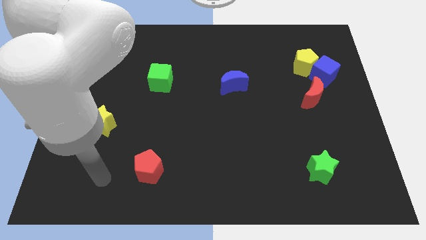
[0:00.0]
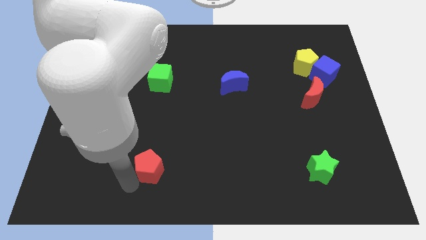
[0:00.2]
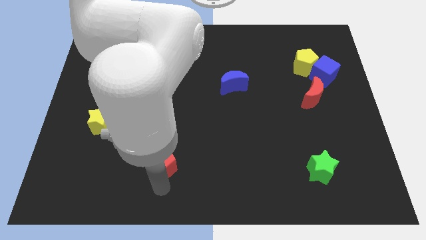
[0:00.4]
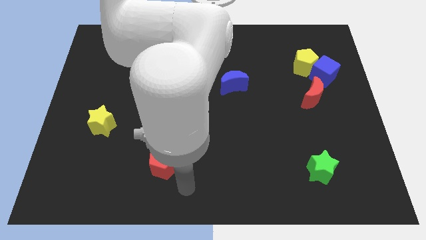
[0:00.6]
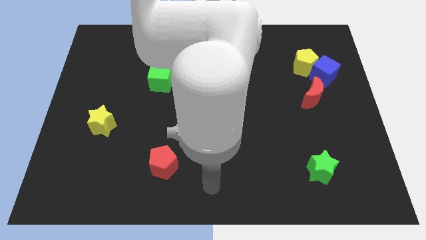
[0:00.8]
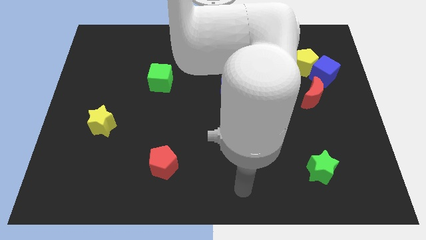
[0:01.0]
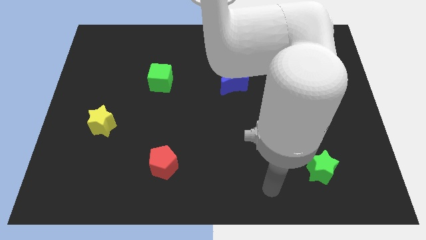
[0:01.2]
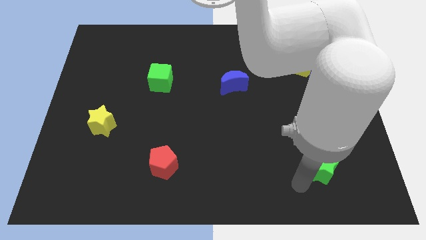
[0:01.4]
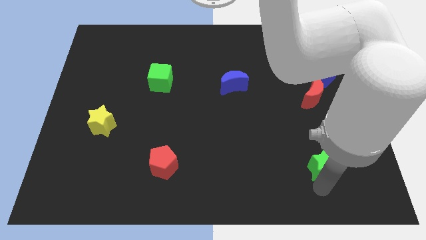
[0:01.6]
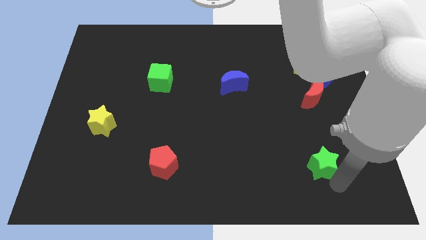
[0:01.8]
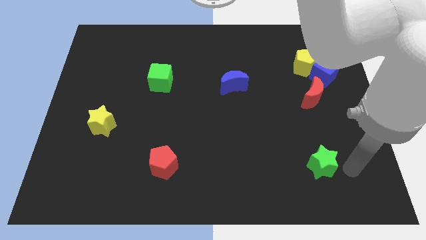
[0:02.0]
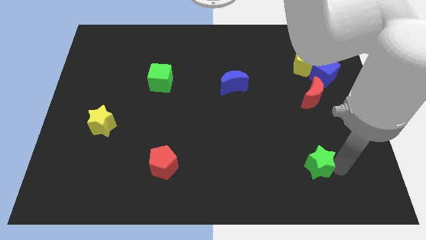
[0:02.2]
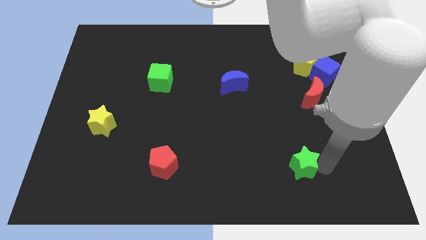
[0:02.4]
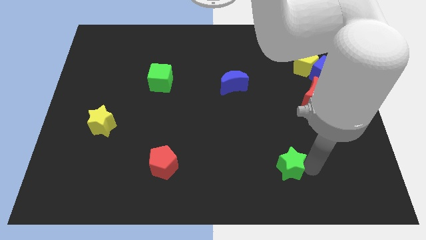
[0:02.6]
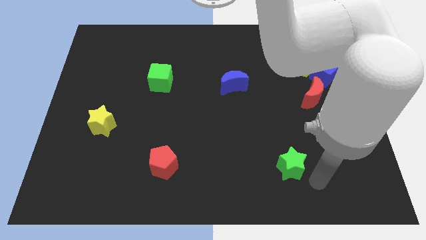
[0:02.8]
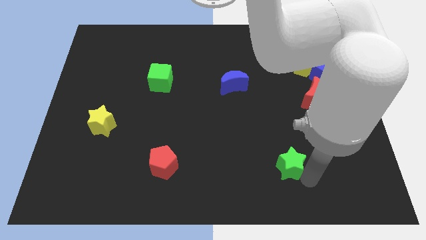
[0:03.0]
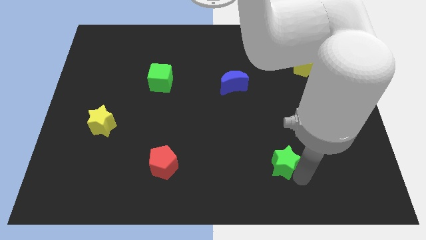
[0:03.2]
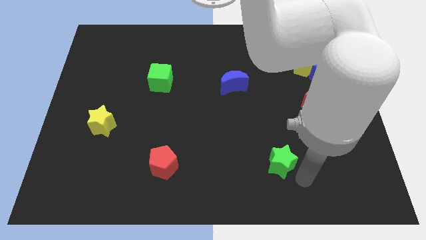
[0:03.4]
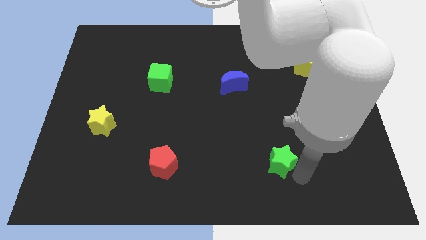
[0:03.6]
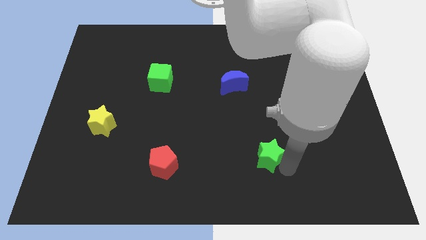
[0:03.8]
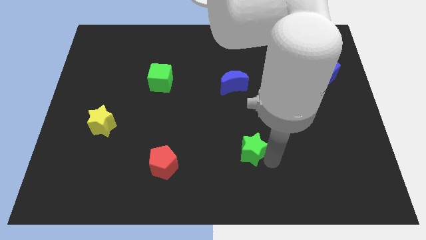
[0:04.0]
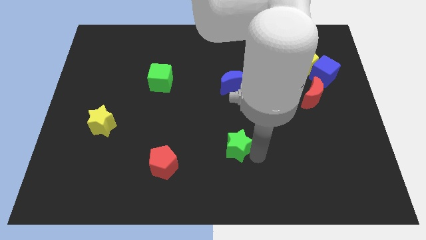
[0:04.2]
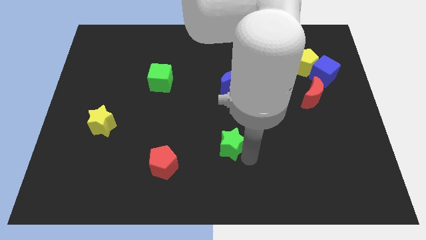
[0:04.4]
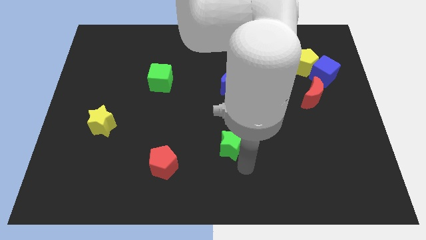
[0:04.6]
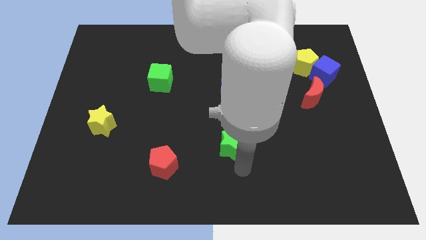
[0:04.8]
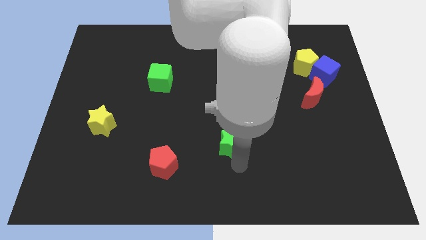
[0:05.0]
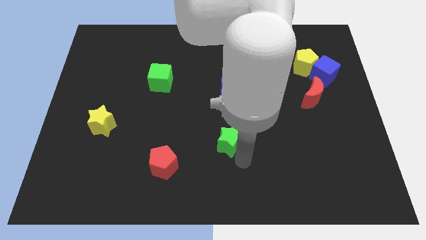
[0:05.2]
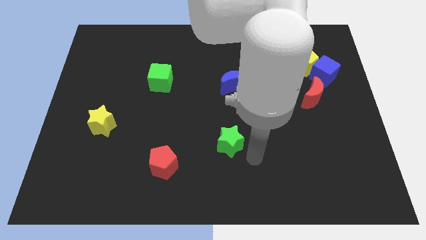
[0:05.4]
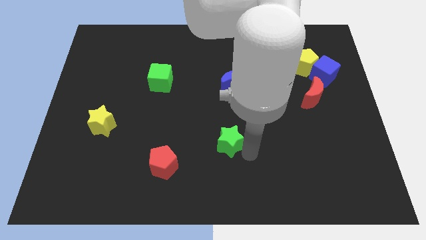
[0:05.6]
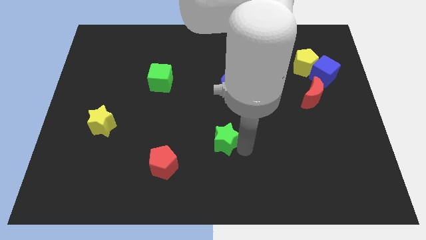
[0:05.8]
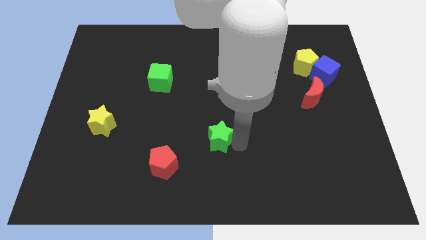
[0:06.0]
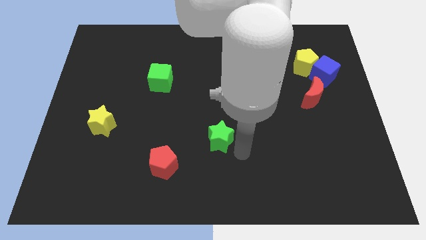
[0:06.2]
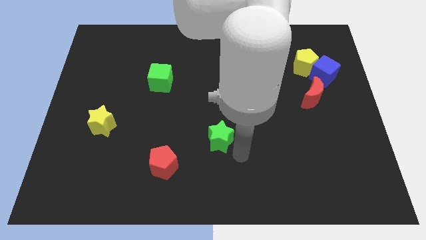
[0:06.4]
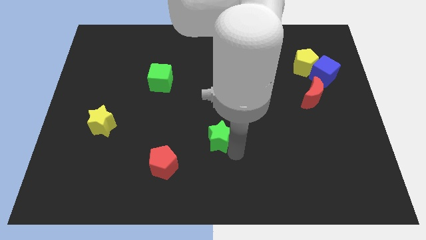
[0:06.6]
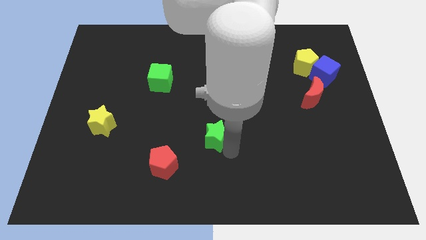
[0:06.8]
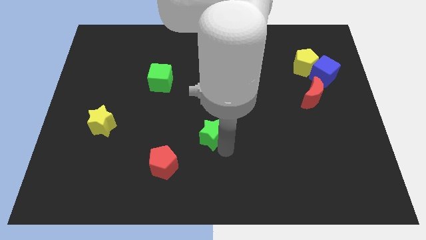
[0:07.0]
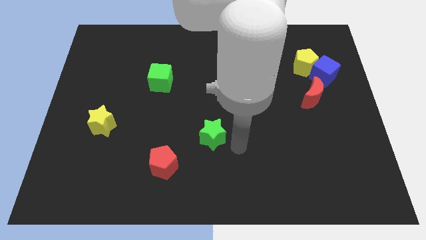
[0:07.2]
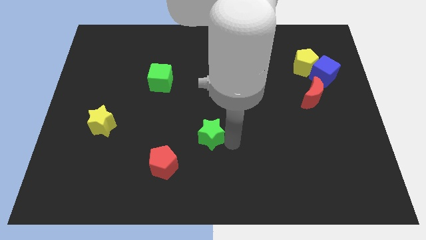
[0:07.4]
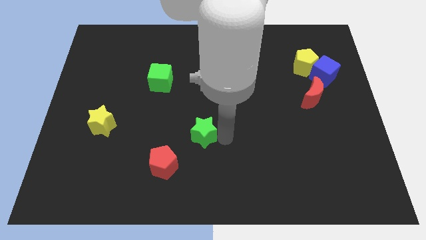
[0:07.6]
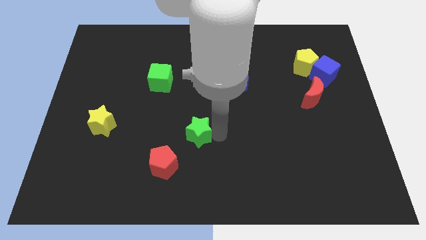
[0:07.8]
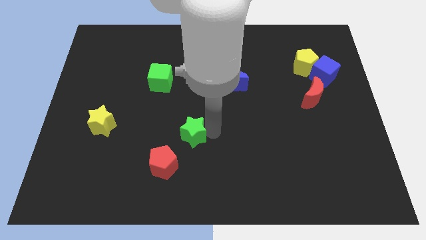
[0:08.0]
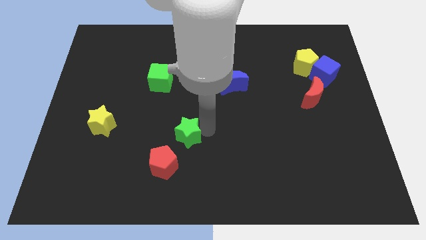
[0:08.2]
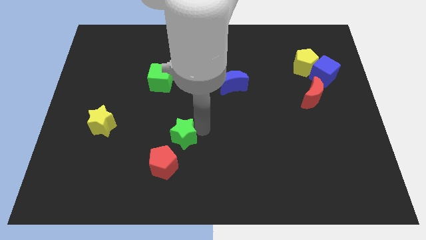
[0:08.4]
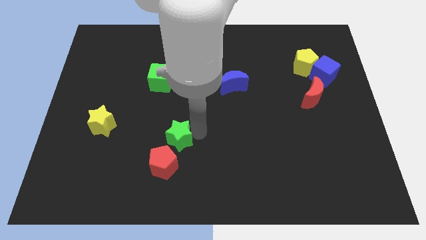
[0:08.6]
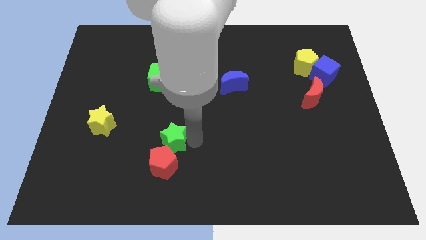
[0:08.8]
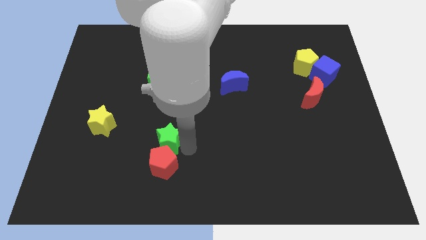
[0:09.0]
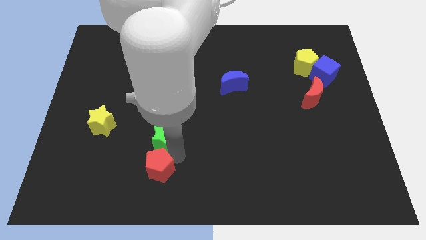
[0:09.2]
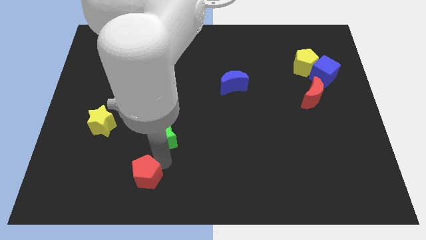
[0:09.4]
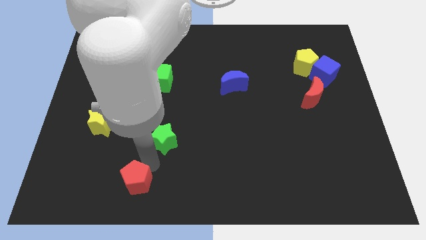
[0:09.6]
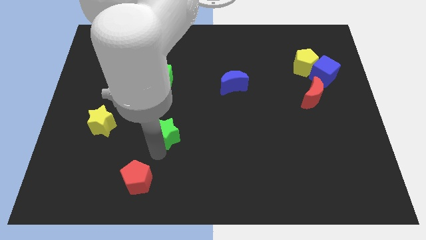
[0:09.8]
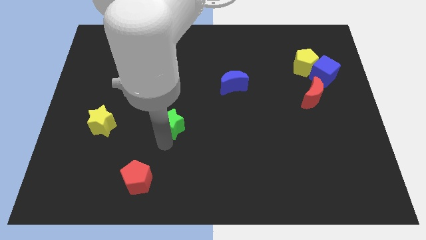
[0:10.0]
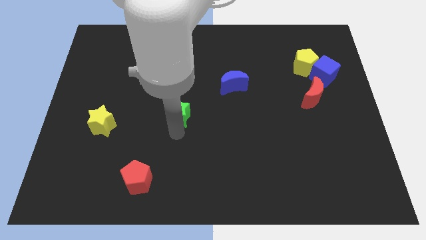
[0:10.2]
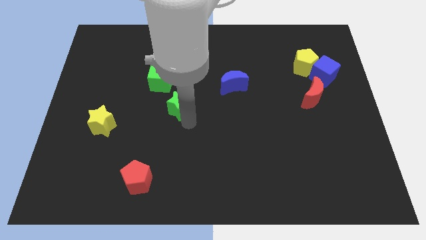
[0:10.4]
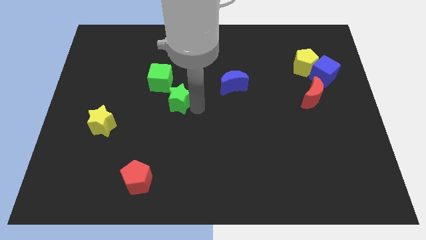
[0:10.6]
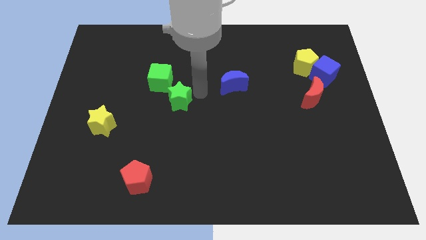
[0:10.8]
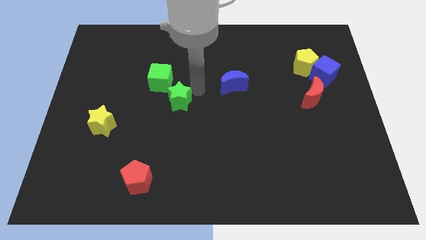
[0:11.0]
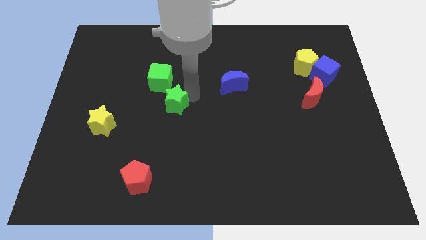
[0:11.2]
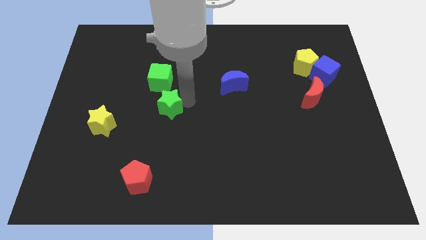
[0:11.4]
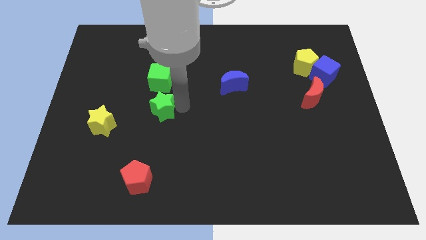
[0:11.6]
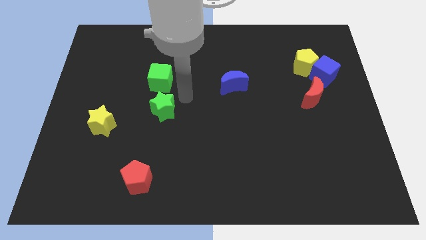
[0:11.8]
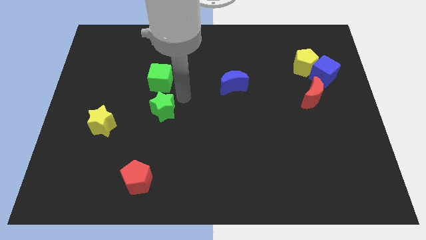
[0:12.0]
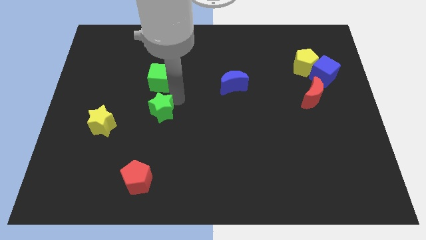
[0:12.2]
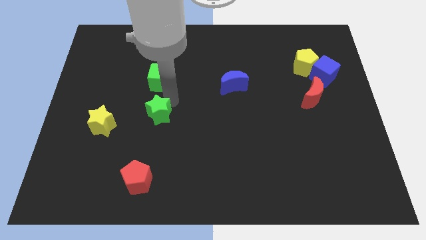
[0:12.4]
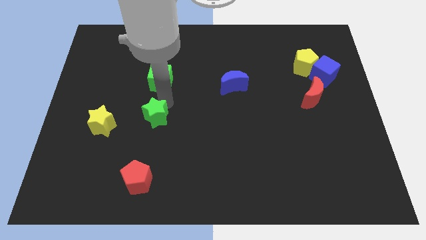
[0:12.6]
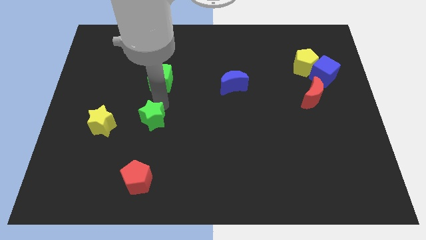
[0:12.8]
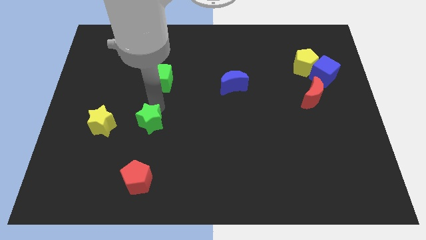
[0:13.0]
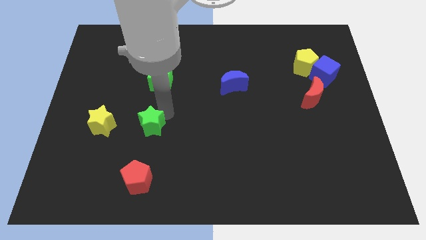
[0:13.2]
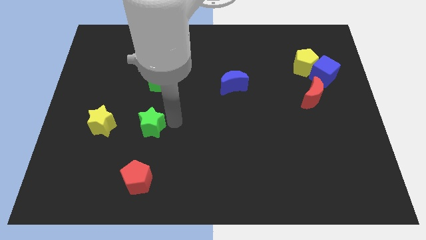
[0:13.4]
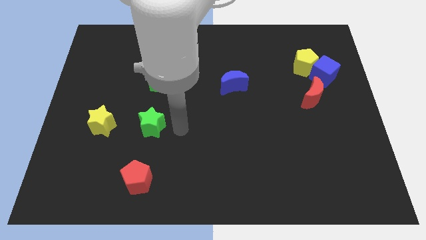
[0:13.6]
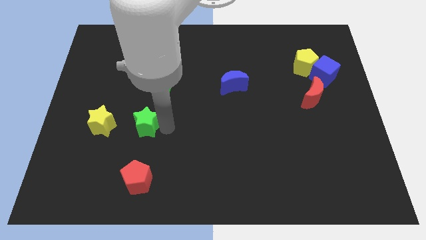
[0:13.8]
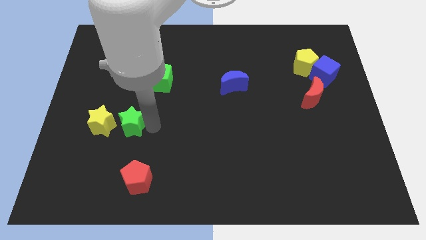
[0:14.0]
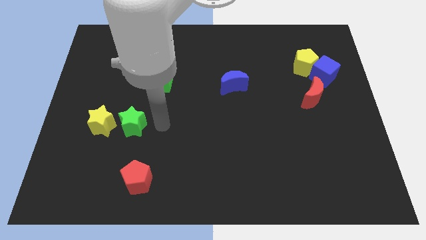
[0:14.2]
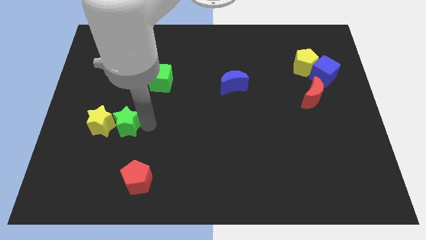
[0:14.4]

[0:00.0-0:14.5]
put the green star next to the yellow star
